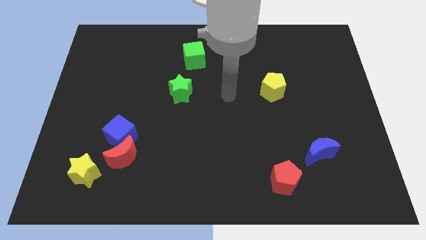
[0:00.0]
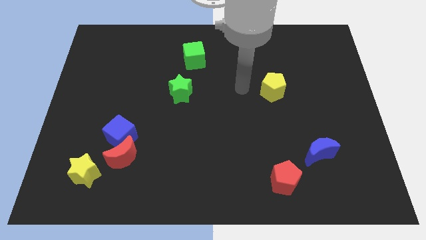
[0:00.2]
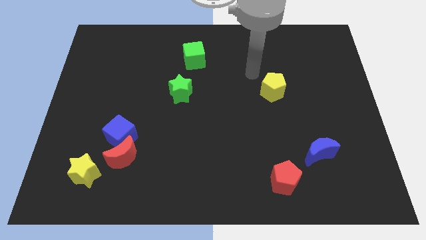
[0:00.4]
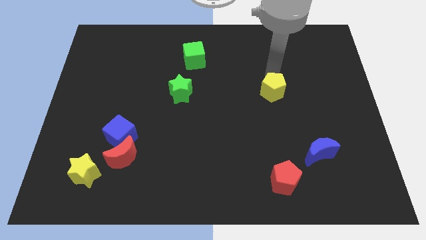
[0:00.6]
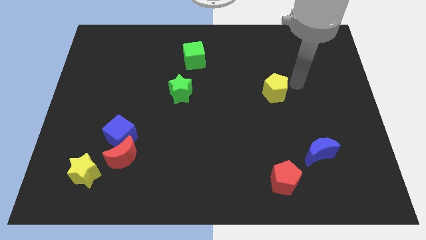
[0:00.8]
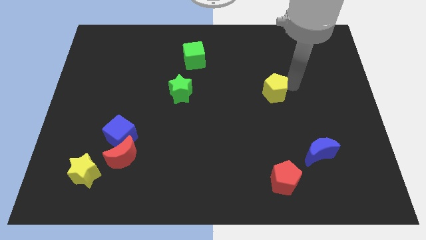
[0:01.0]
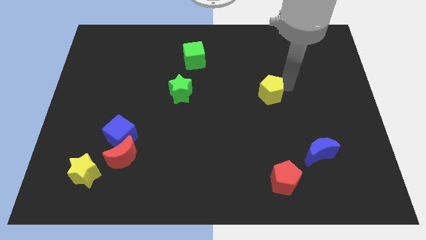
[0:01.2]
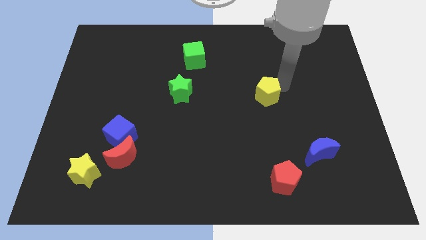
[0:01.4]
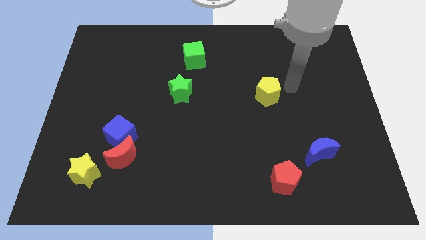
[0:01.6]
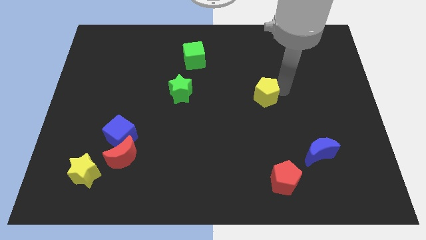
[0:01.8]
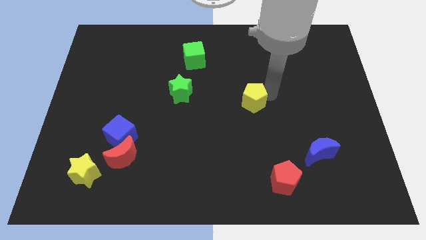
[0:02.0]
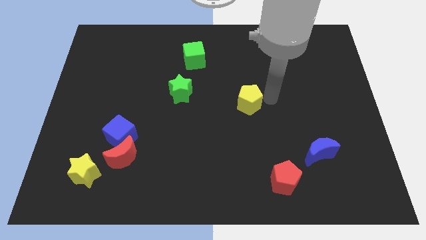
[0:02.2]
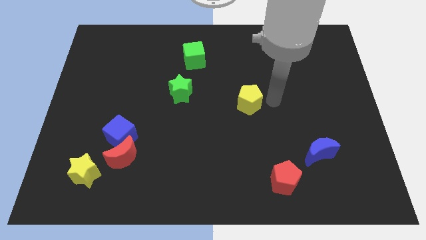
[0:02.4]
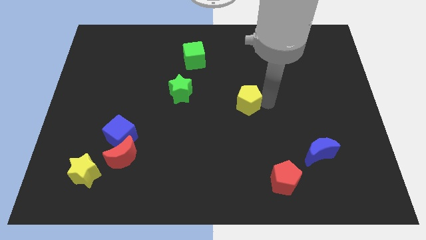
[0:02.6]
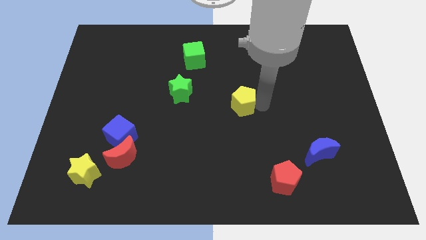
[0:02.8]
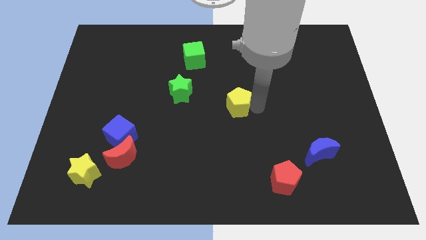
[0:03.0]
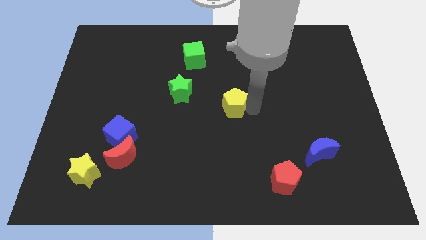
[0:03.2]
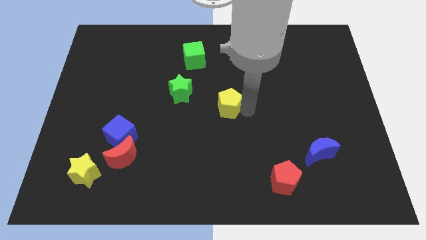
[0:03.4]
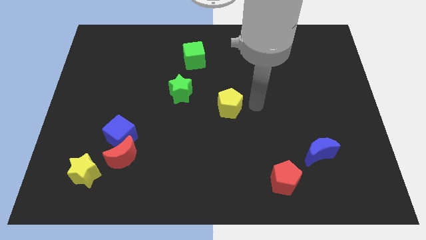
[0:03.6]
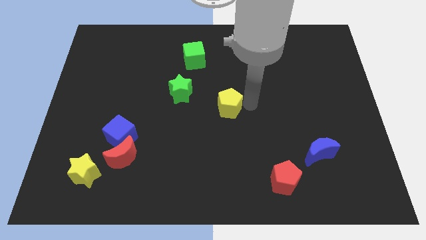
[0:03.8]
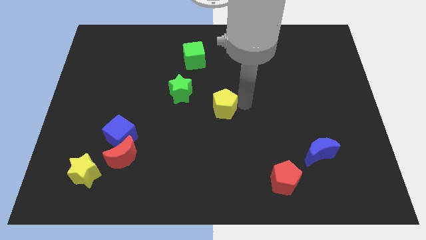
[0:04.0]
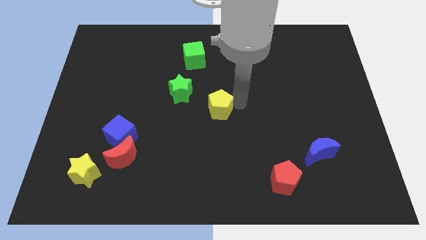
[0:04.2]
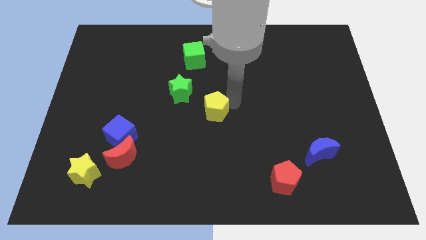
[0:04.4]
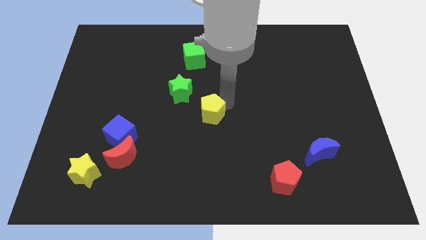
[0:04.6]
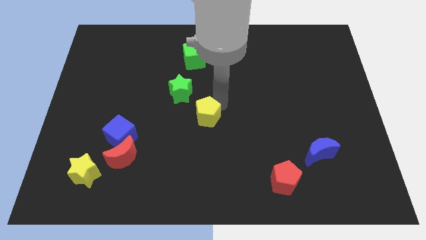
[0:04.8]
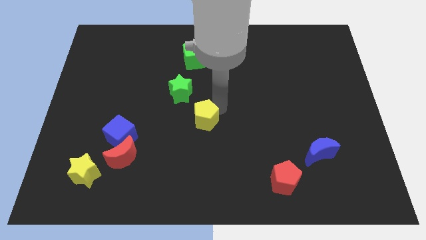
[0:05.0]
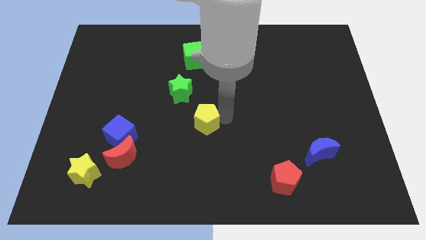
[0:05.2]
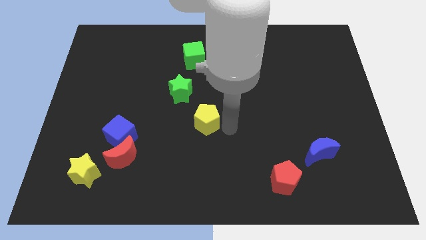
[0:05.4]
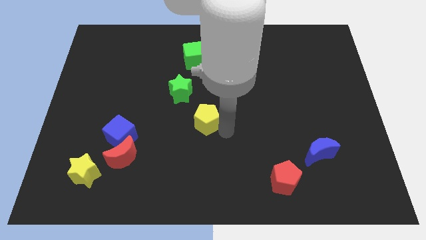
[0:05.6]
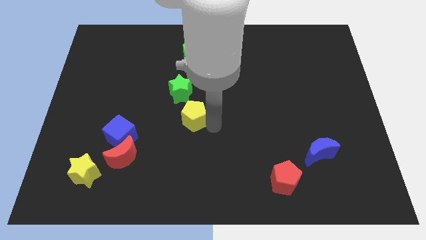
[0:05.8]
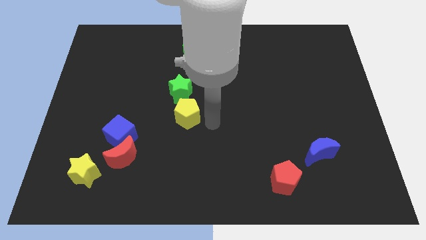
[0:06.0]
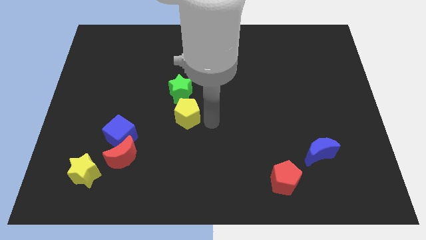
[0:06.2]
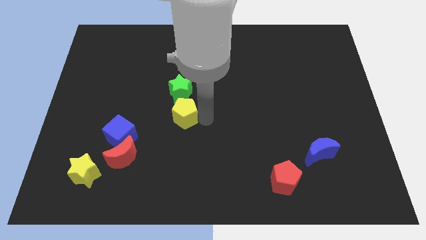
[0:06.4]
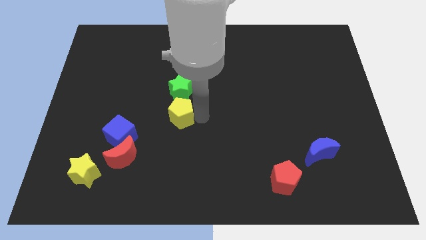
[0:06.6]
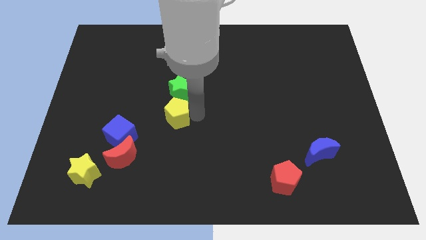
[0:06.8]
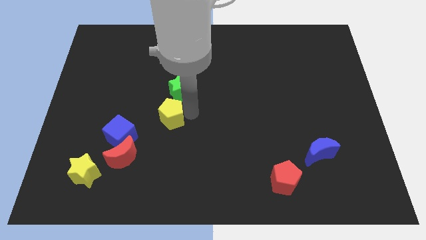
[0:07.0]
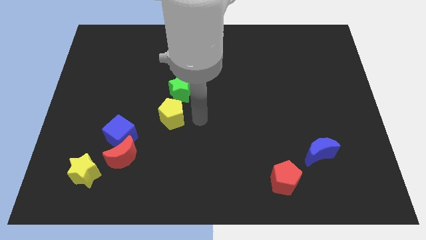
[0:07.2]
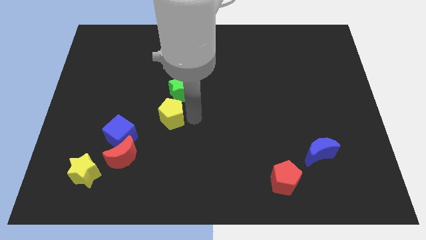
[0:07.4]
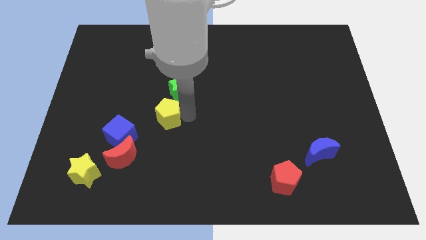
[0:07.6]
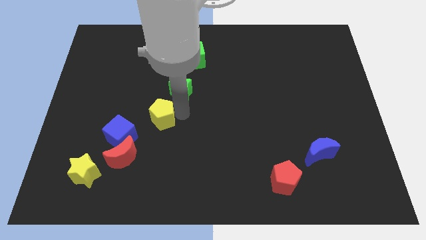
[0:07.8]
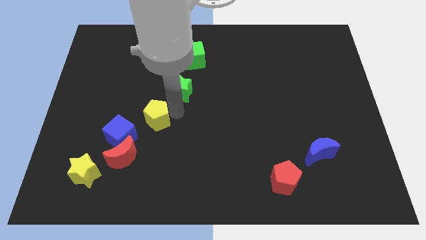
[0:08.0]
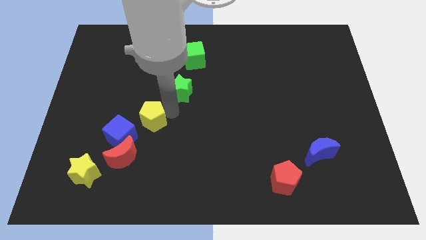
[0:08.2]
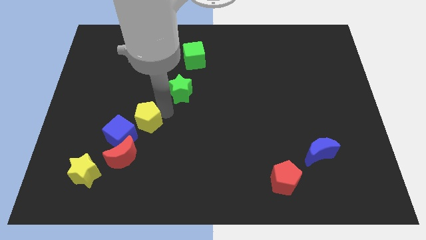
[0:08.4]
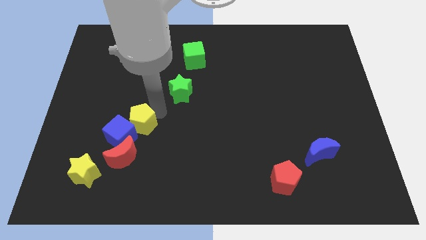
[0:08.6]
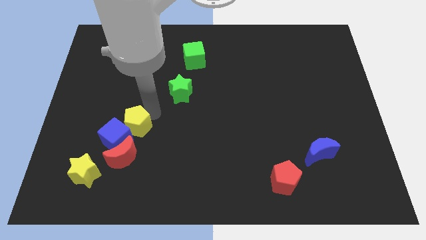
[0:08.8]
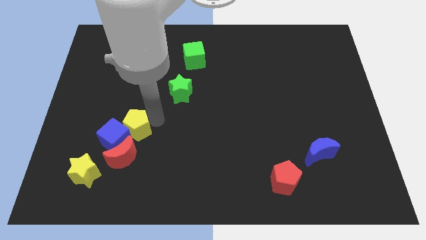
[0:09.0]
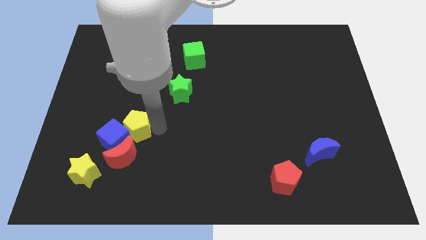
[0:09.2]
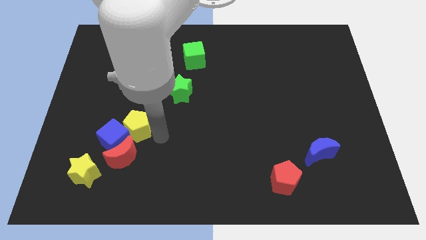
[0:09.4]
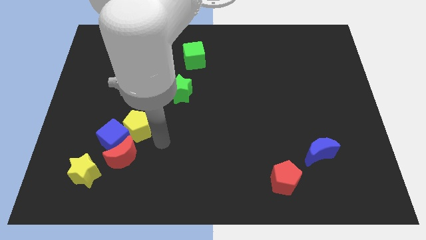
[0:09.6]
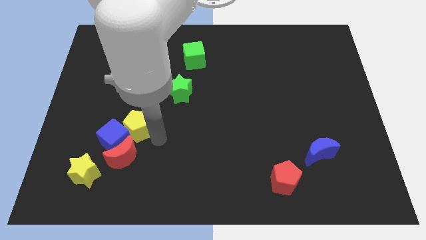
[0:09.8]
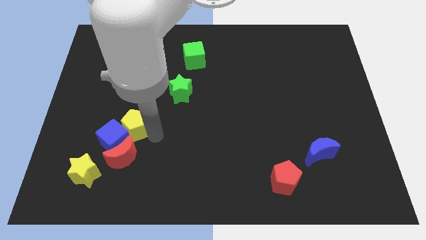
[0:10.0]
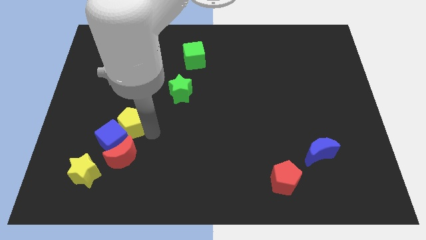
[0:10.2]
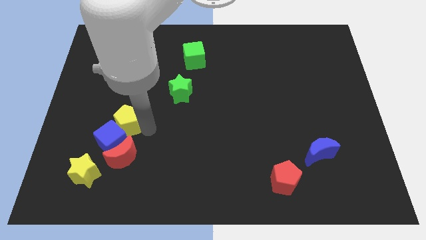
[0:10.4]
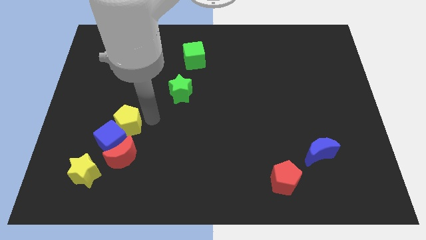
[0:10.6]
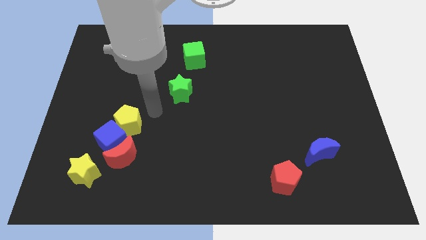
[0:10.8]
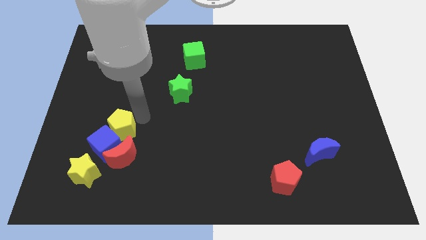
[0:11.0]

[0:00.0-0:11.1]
push the yellow pentagon diagonally up and to the left of the red moon

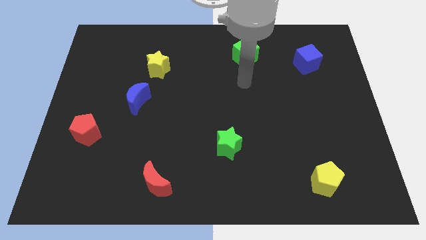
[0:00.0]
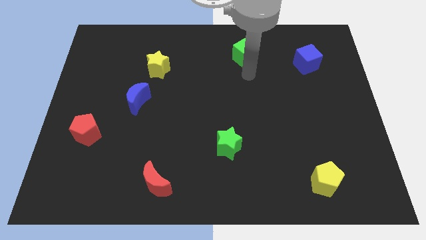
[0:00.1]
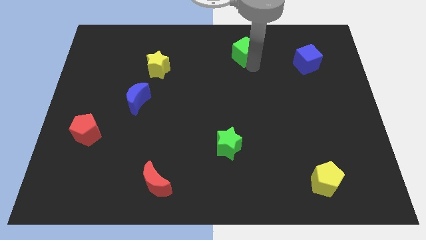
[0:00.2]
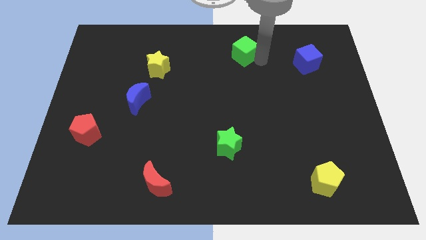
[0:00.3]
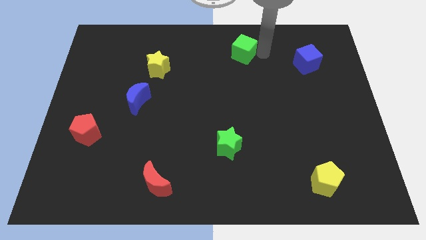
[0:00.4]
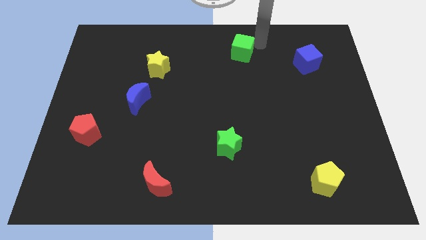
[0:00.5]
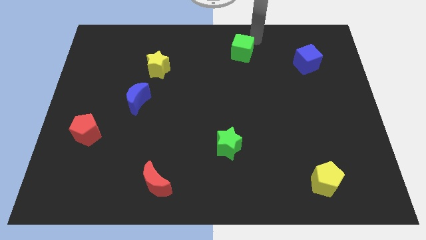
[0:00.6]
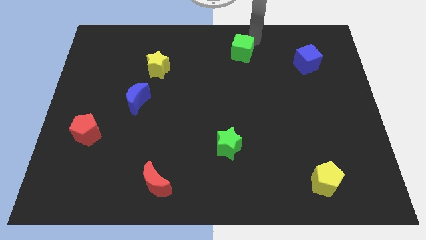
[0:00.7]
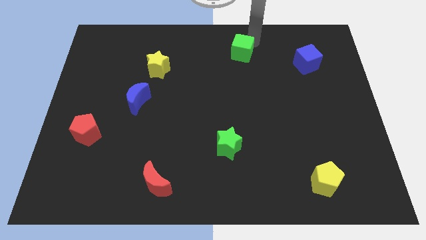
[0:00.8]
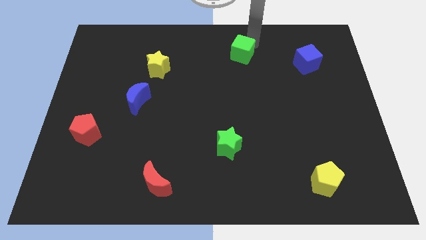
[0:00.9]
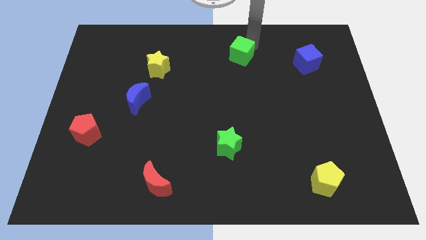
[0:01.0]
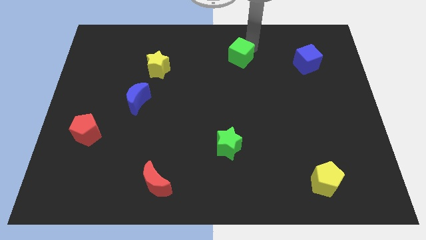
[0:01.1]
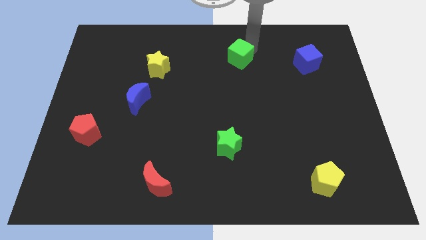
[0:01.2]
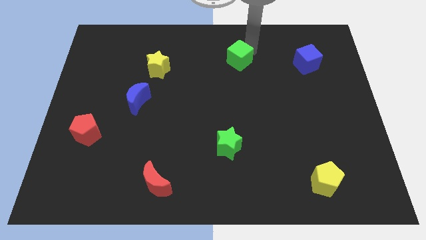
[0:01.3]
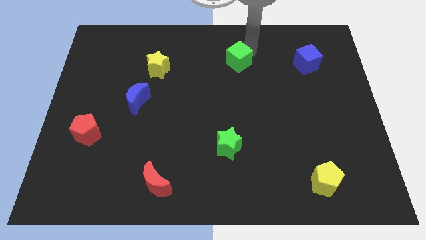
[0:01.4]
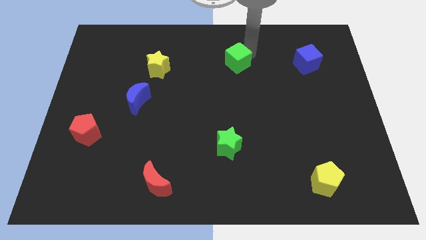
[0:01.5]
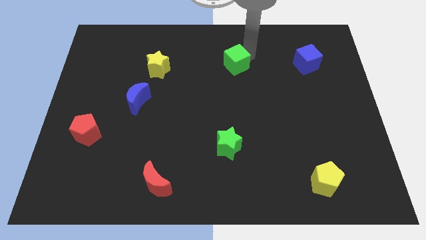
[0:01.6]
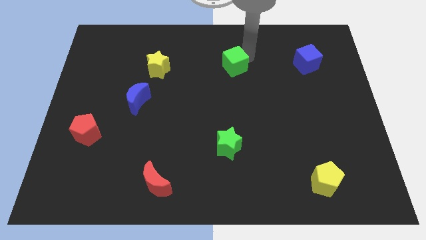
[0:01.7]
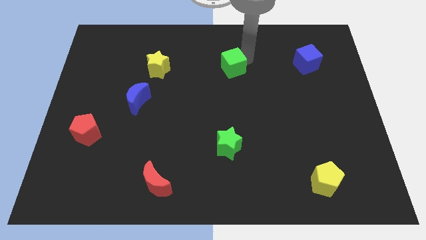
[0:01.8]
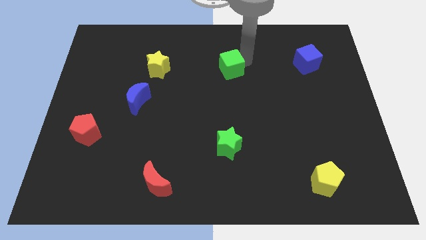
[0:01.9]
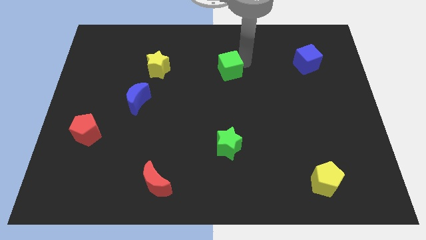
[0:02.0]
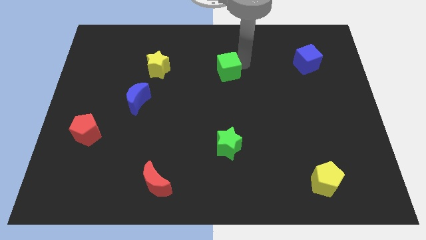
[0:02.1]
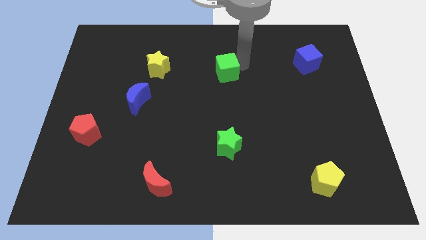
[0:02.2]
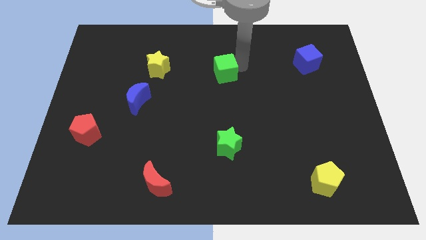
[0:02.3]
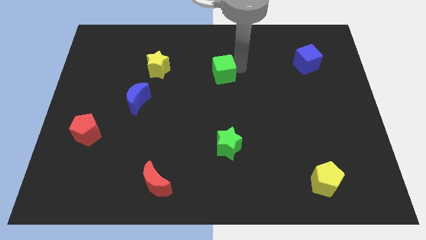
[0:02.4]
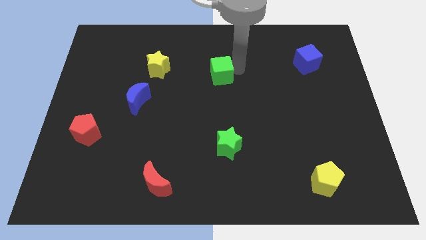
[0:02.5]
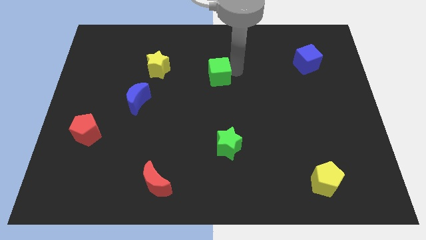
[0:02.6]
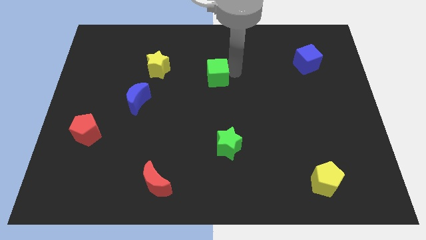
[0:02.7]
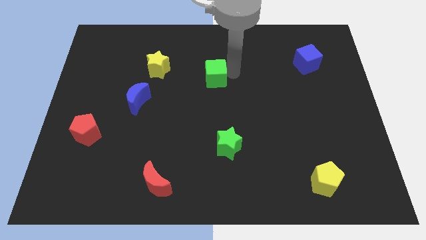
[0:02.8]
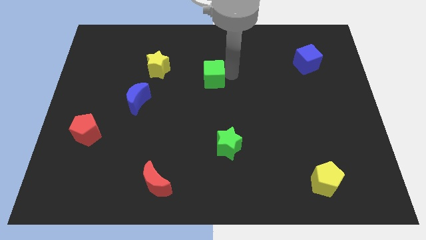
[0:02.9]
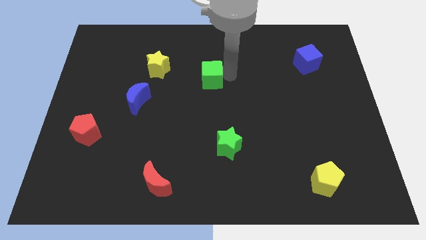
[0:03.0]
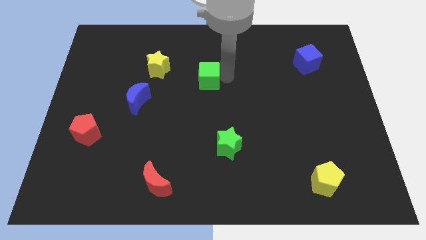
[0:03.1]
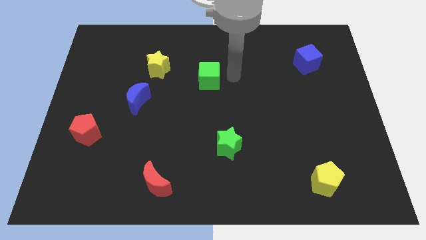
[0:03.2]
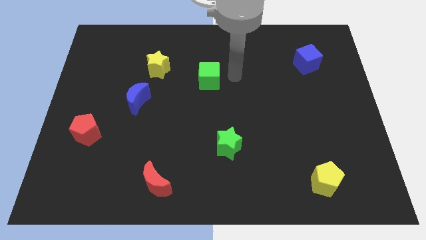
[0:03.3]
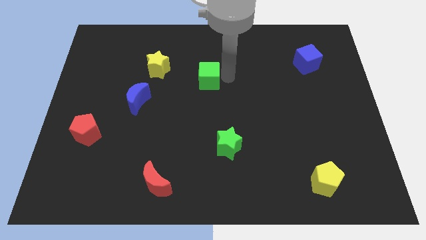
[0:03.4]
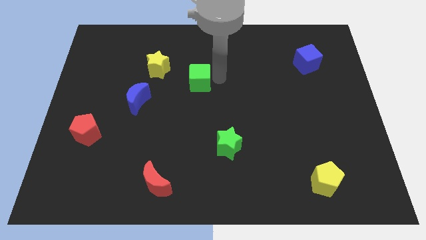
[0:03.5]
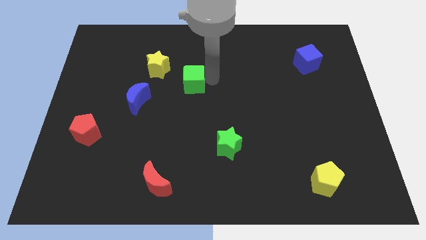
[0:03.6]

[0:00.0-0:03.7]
push the green cube to the bottom right side of the yellow star
